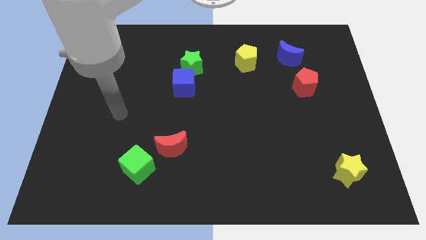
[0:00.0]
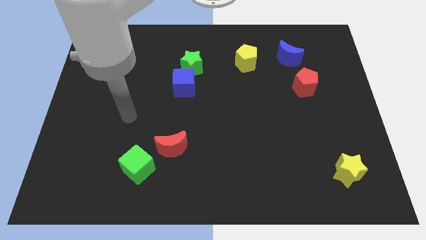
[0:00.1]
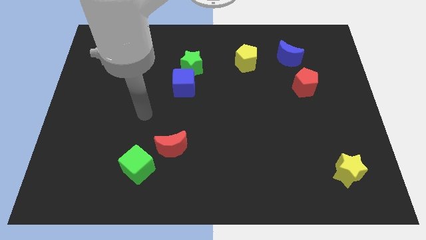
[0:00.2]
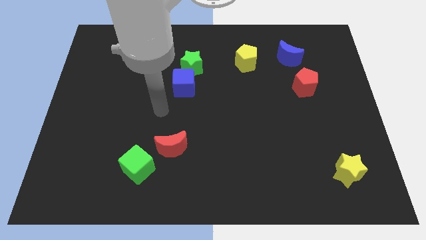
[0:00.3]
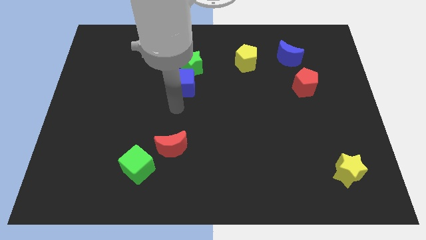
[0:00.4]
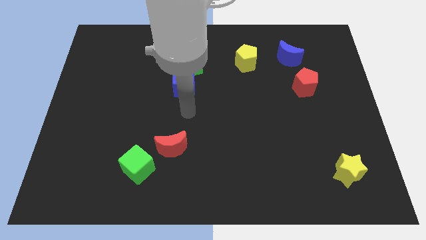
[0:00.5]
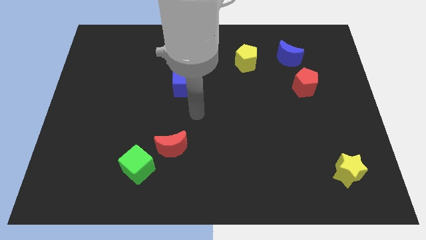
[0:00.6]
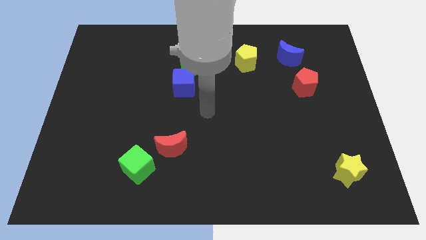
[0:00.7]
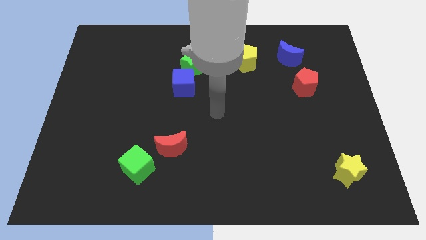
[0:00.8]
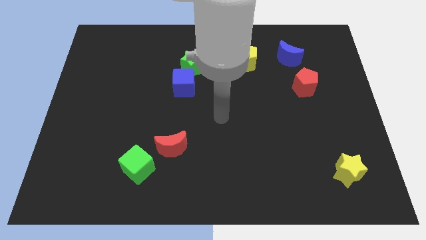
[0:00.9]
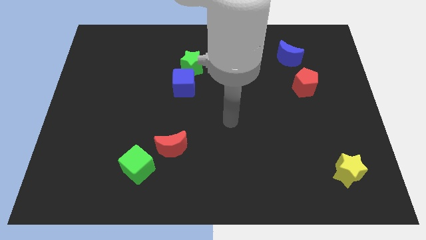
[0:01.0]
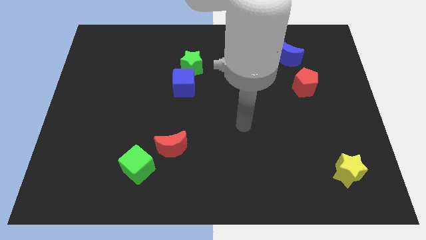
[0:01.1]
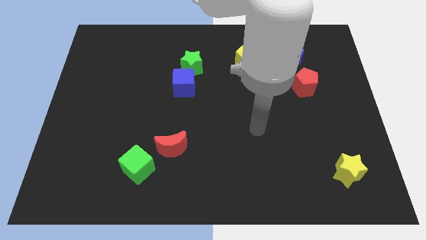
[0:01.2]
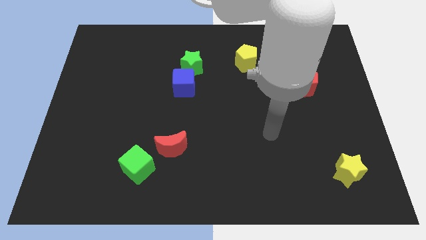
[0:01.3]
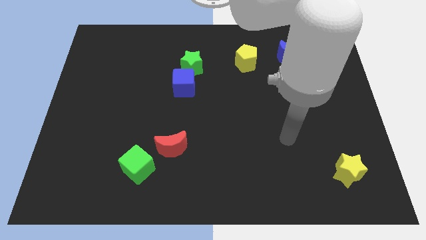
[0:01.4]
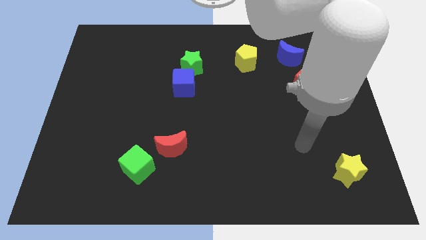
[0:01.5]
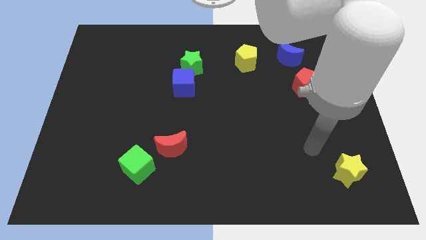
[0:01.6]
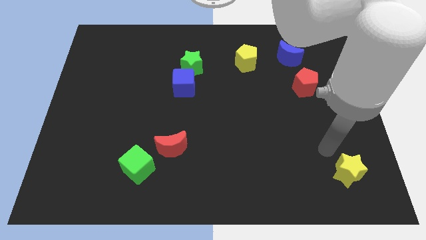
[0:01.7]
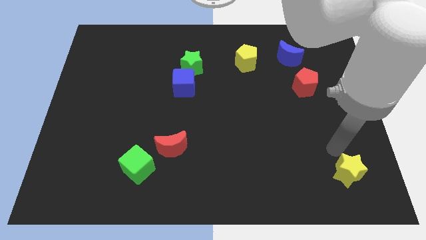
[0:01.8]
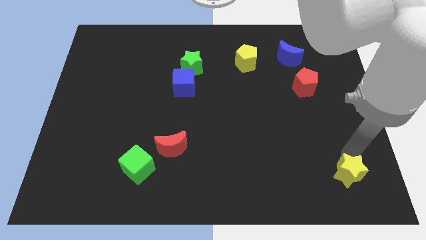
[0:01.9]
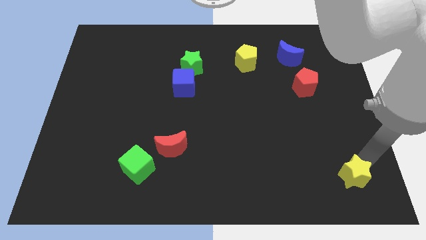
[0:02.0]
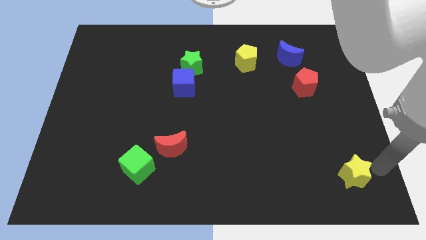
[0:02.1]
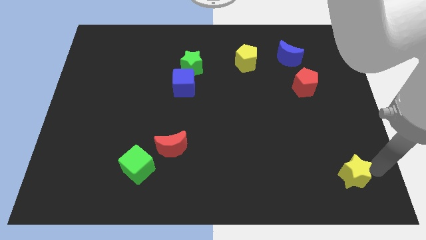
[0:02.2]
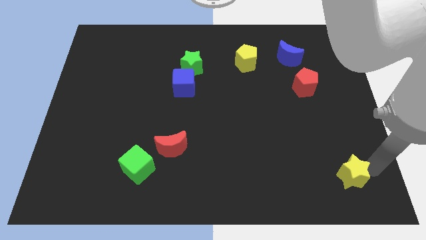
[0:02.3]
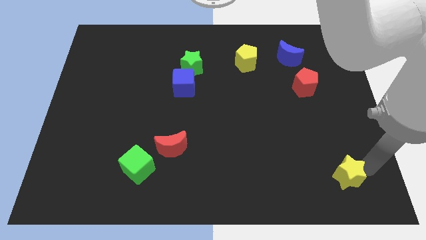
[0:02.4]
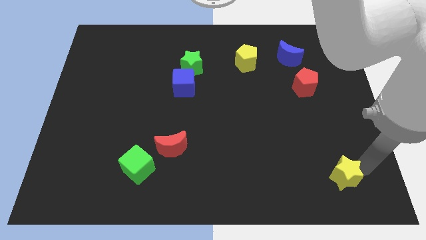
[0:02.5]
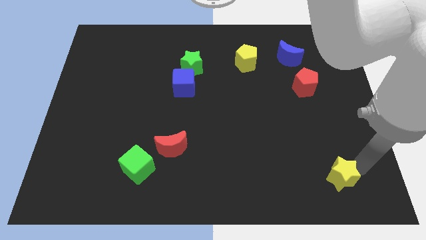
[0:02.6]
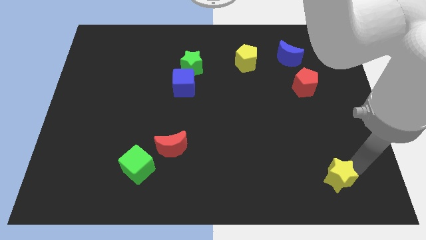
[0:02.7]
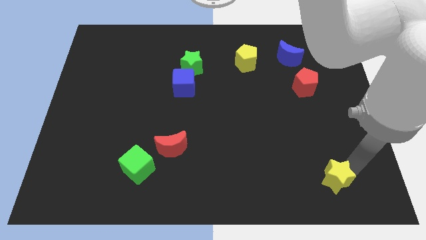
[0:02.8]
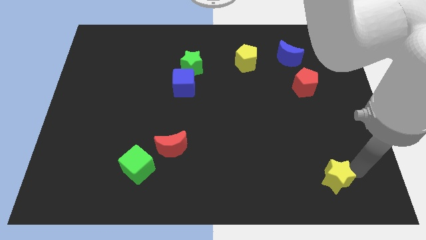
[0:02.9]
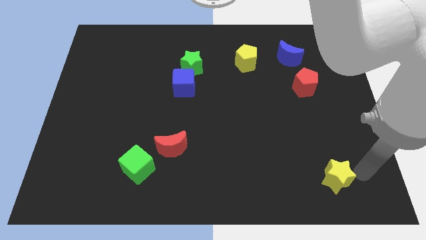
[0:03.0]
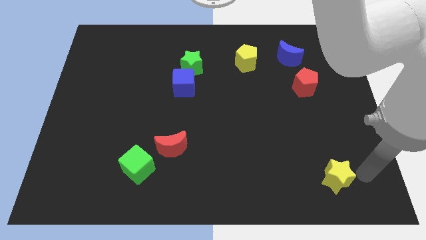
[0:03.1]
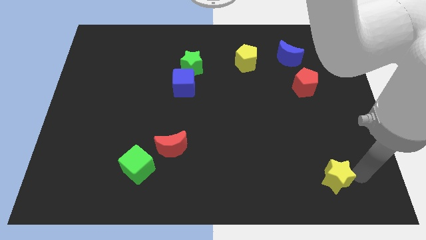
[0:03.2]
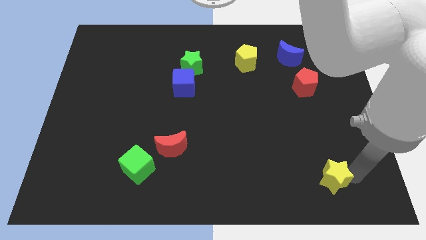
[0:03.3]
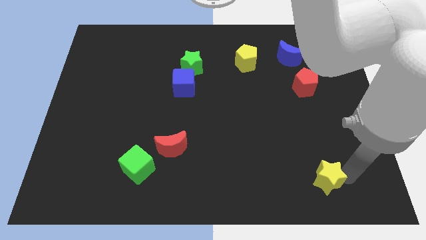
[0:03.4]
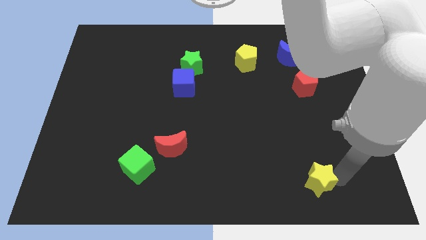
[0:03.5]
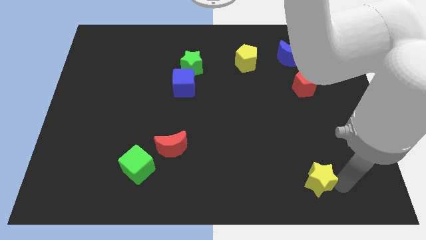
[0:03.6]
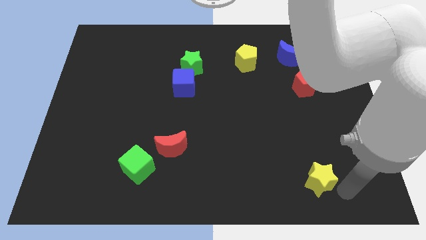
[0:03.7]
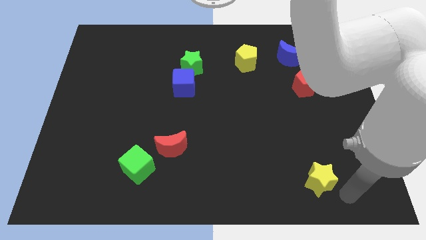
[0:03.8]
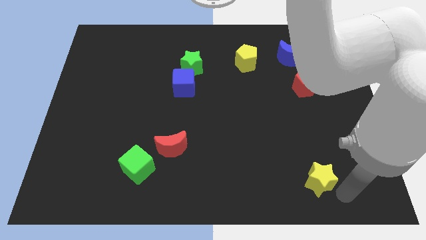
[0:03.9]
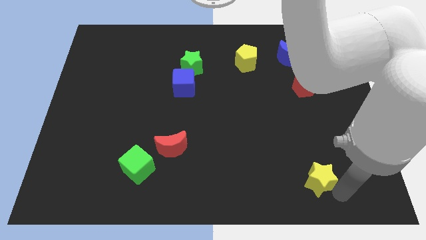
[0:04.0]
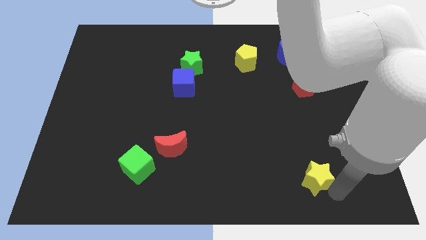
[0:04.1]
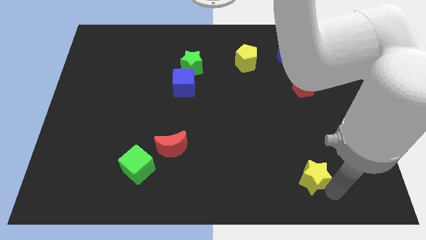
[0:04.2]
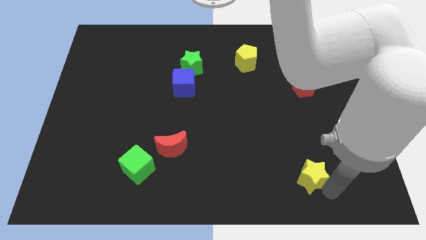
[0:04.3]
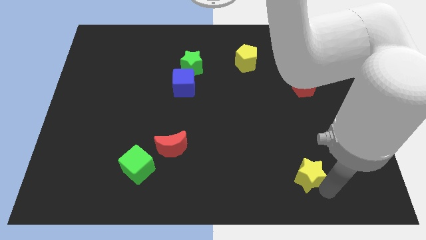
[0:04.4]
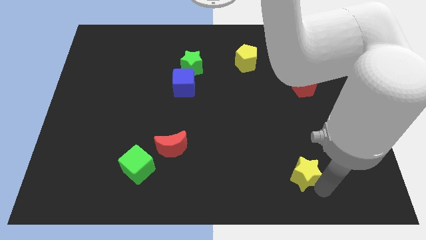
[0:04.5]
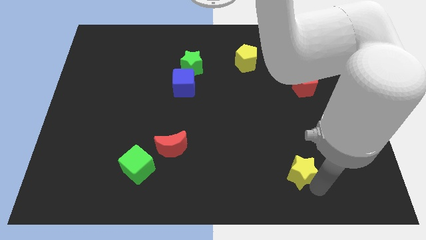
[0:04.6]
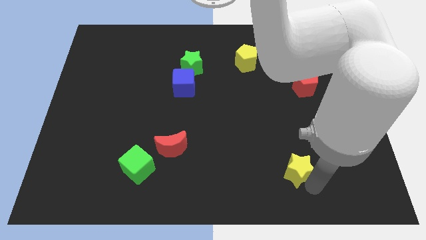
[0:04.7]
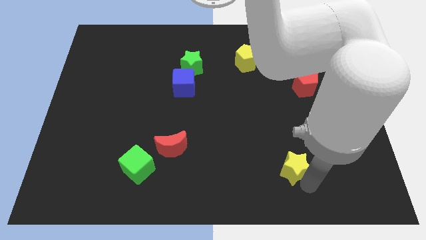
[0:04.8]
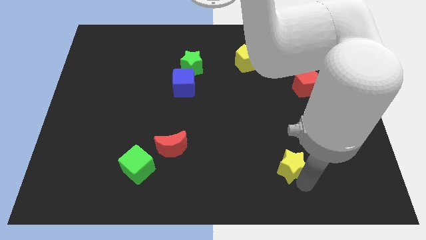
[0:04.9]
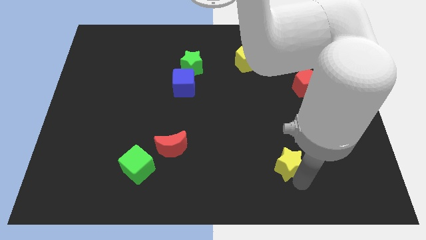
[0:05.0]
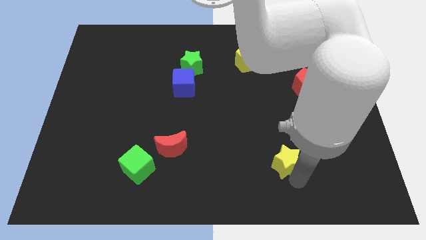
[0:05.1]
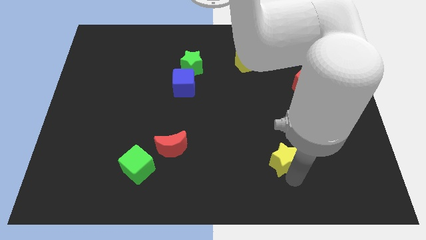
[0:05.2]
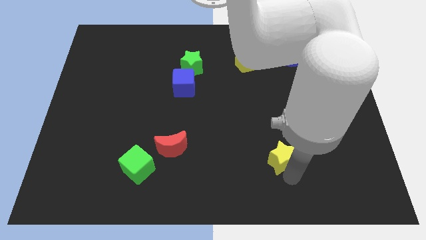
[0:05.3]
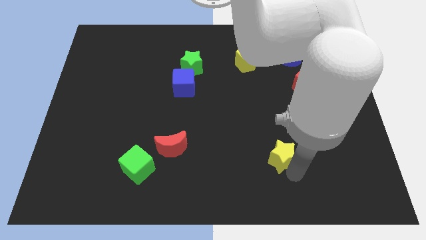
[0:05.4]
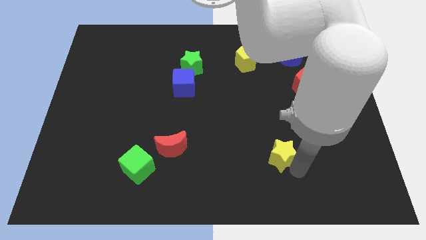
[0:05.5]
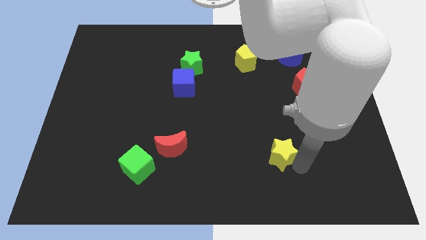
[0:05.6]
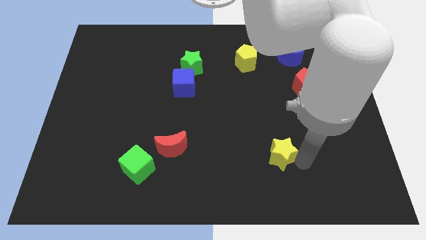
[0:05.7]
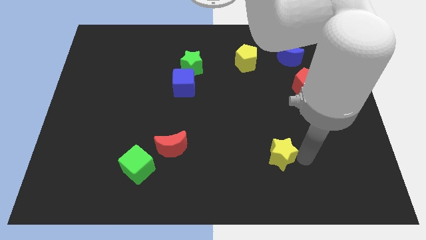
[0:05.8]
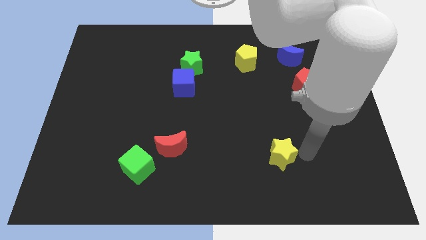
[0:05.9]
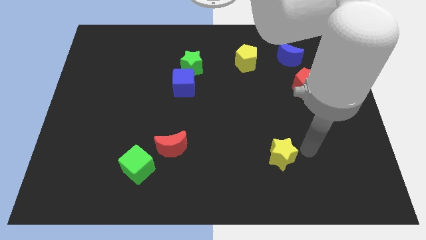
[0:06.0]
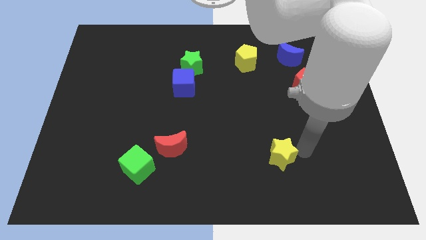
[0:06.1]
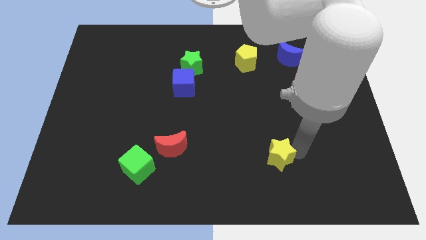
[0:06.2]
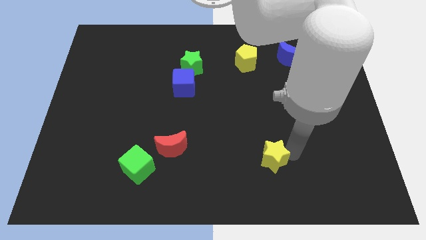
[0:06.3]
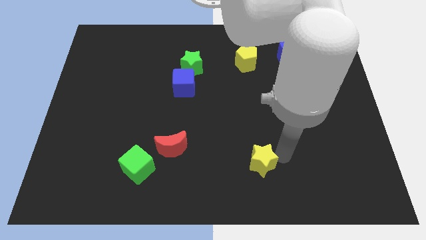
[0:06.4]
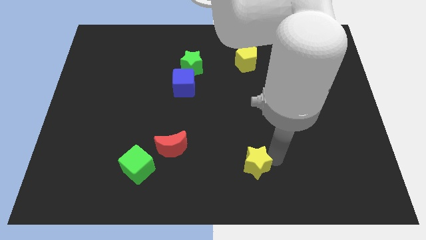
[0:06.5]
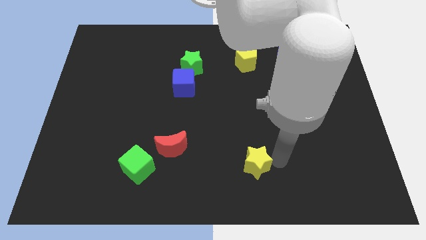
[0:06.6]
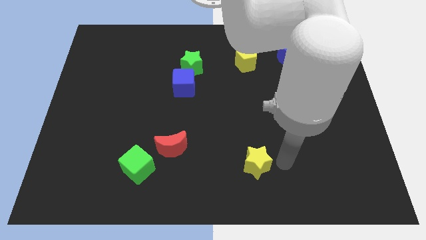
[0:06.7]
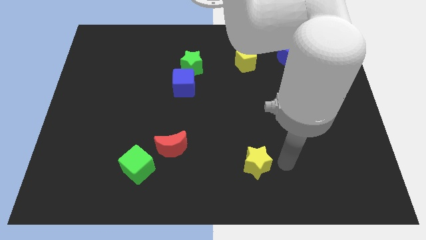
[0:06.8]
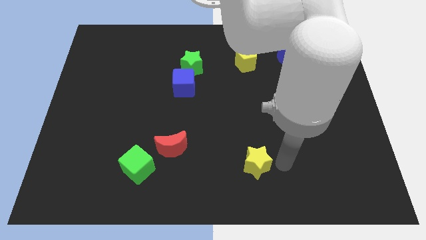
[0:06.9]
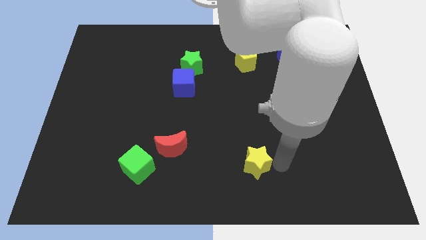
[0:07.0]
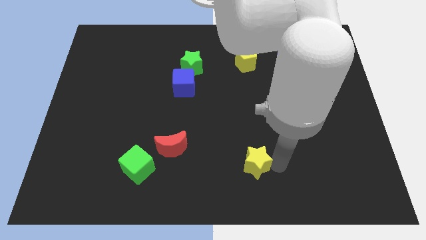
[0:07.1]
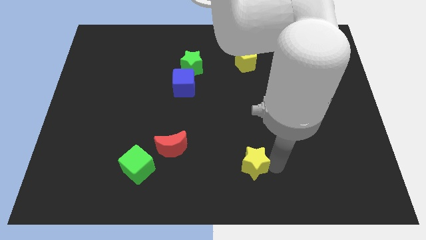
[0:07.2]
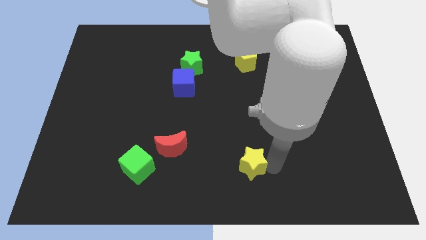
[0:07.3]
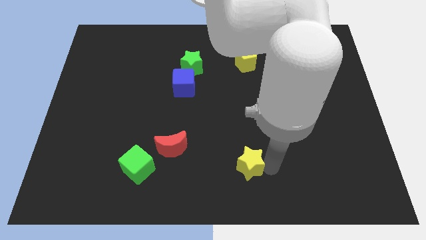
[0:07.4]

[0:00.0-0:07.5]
slide the yellow star to the left

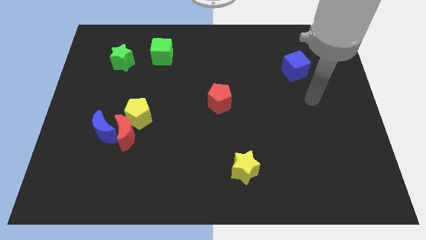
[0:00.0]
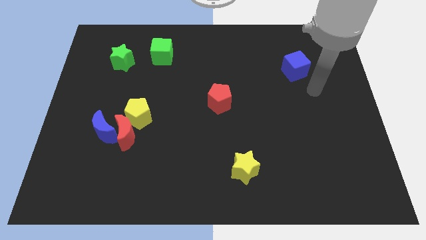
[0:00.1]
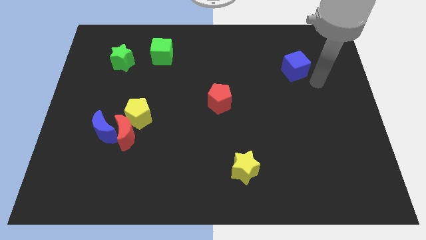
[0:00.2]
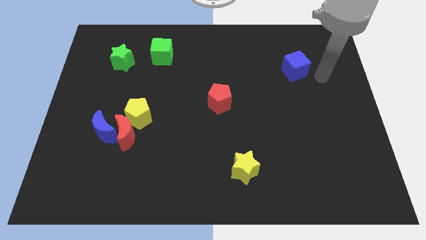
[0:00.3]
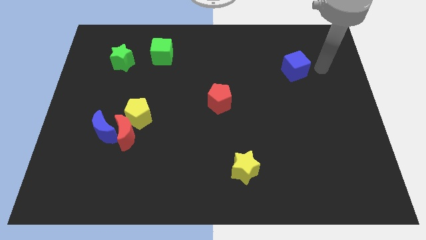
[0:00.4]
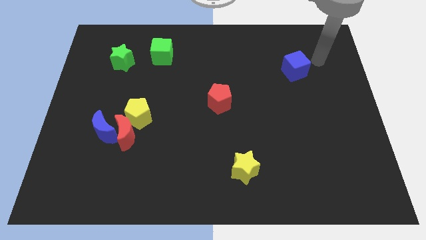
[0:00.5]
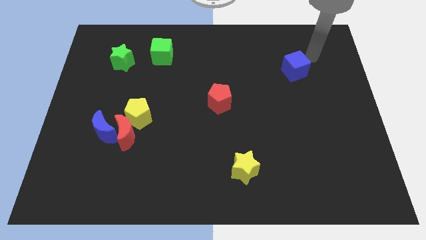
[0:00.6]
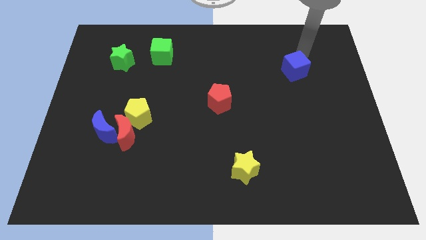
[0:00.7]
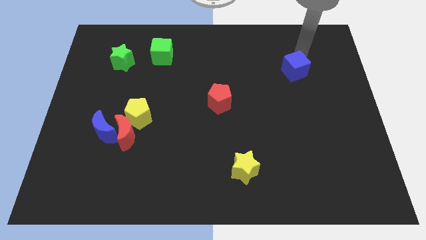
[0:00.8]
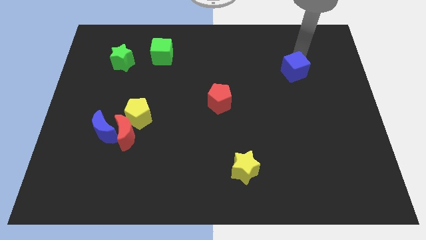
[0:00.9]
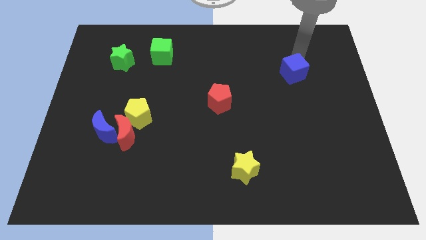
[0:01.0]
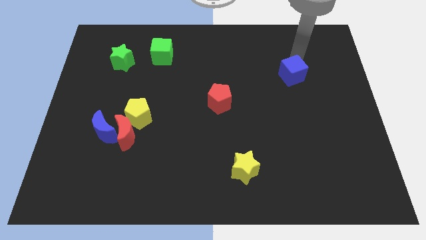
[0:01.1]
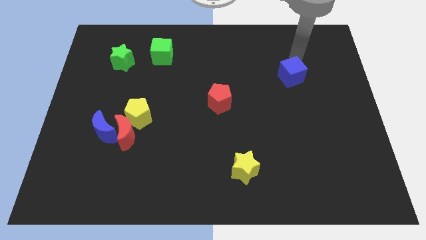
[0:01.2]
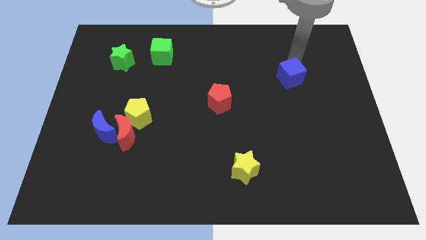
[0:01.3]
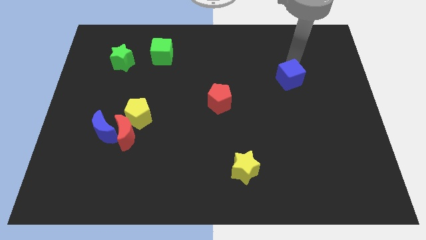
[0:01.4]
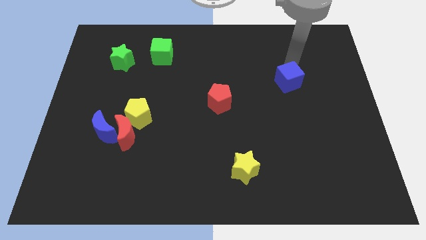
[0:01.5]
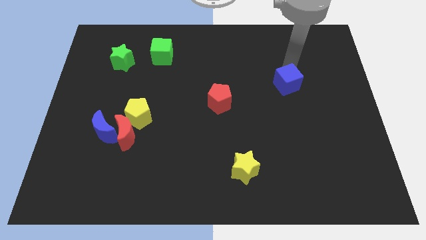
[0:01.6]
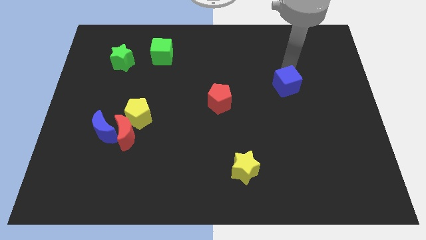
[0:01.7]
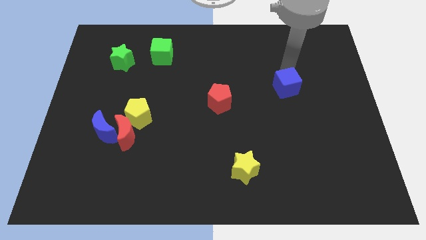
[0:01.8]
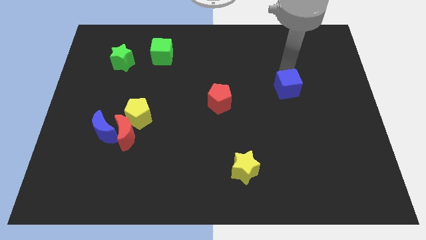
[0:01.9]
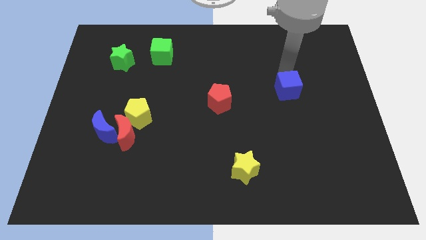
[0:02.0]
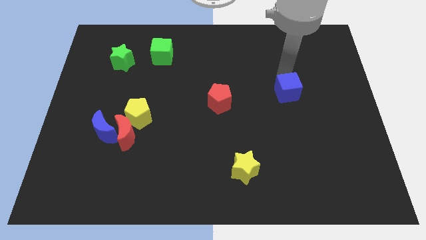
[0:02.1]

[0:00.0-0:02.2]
move the blue cube slightly down and left
